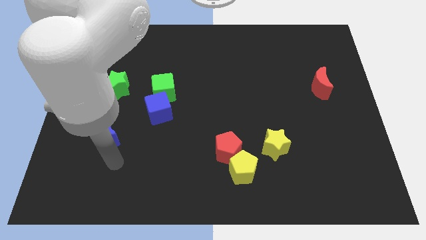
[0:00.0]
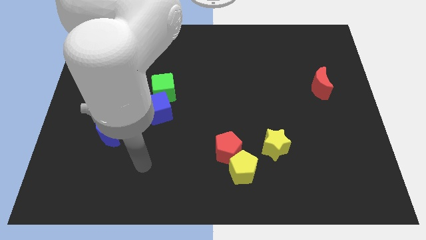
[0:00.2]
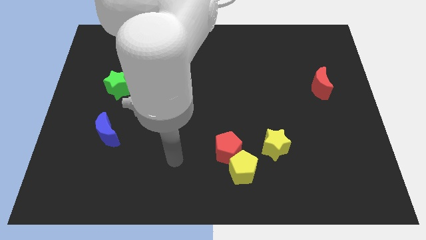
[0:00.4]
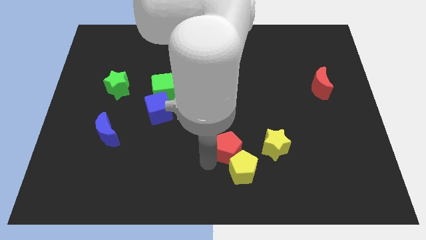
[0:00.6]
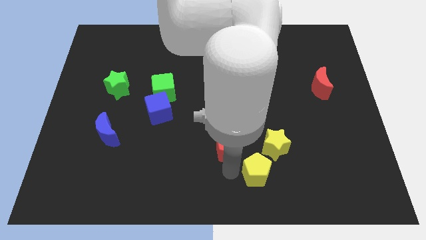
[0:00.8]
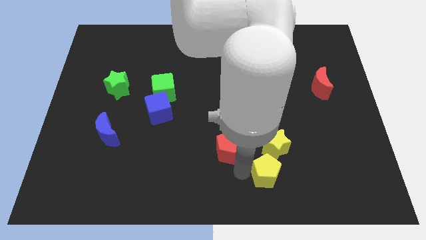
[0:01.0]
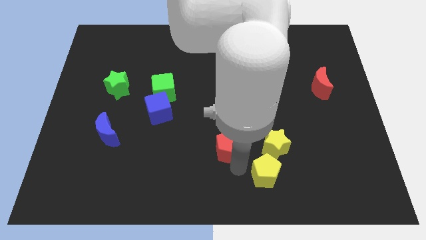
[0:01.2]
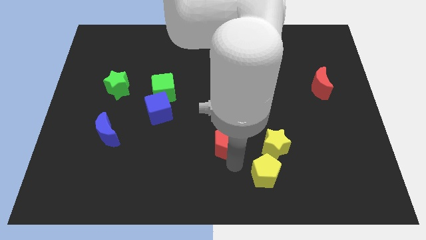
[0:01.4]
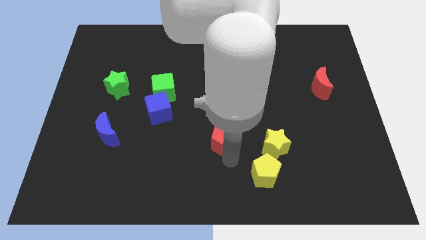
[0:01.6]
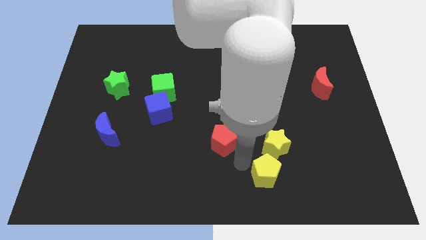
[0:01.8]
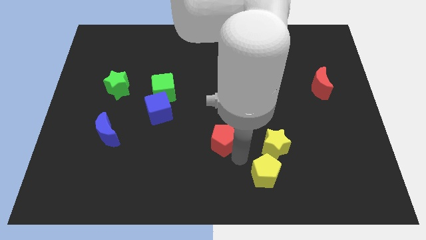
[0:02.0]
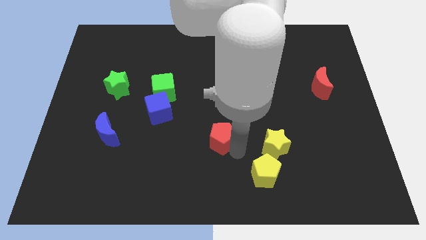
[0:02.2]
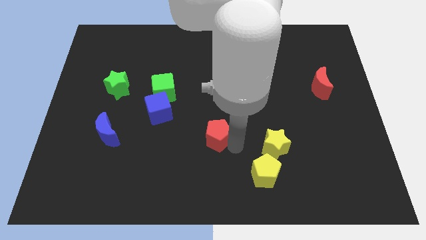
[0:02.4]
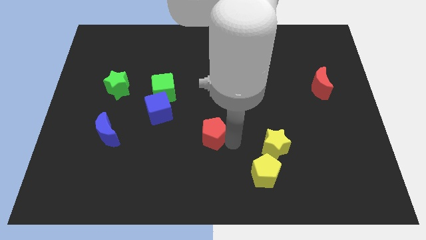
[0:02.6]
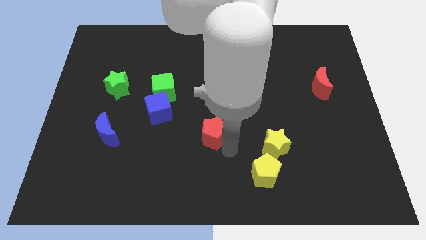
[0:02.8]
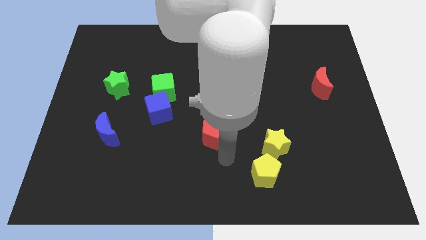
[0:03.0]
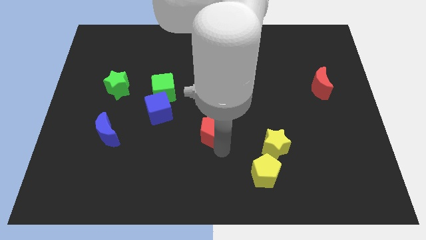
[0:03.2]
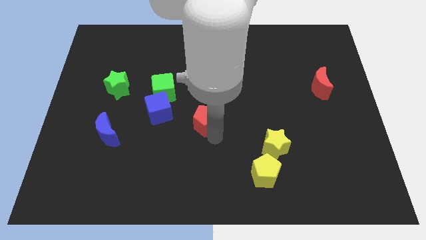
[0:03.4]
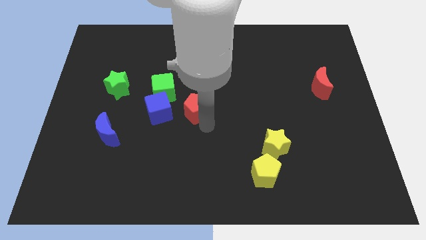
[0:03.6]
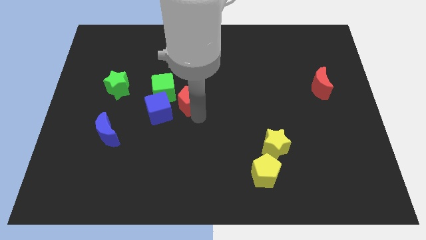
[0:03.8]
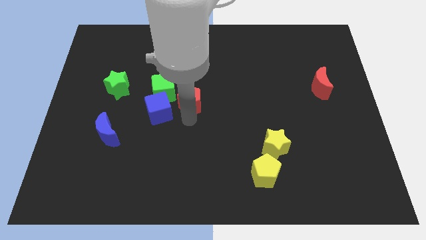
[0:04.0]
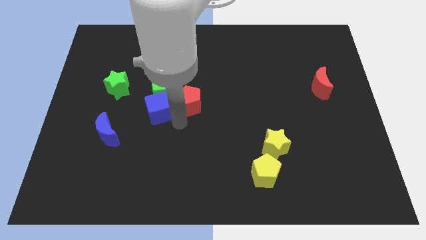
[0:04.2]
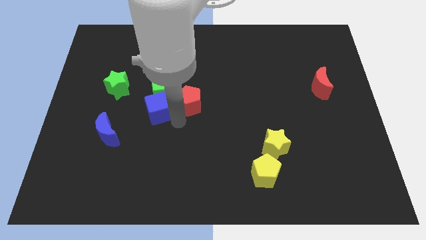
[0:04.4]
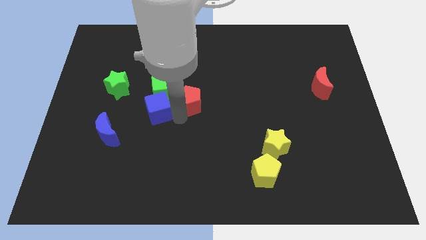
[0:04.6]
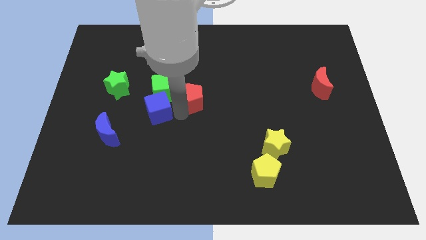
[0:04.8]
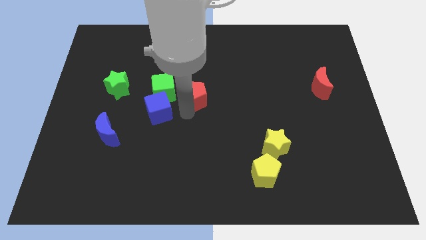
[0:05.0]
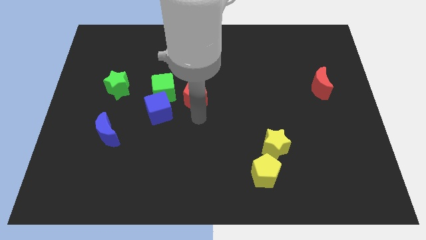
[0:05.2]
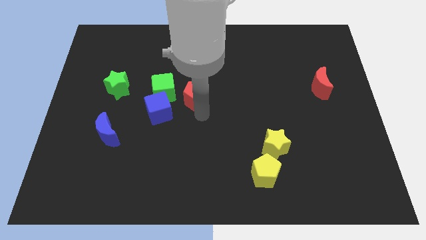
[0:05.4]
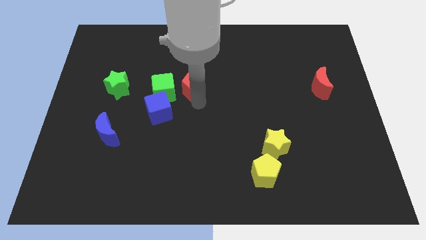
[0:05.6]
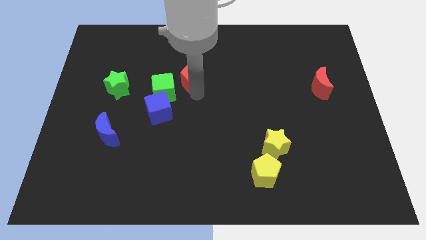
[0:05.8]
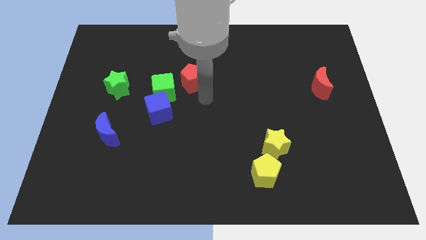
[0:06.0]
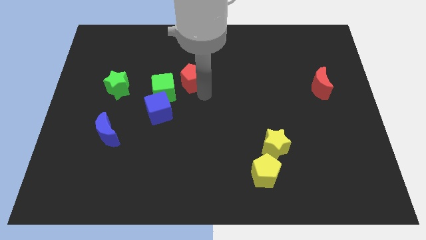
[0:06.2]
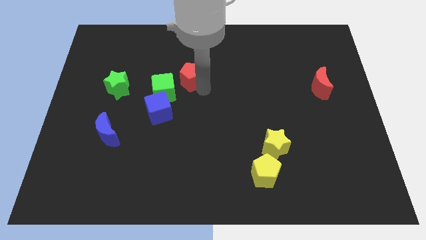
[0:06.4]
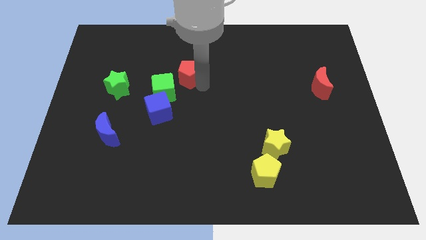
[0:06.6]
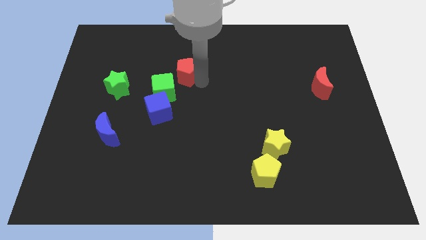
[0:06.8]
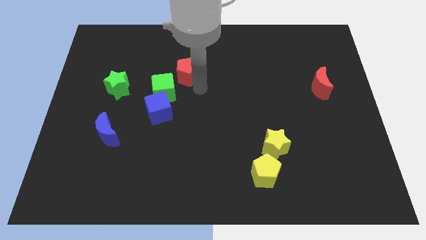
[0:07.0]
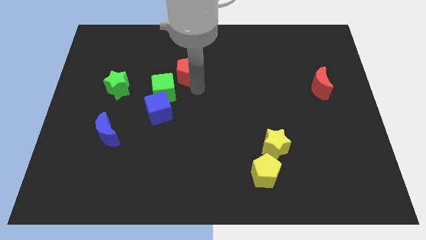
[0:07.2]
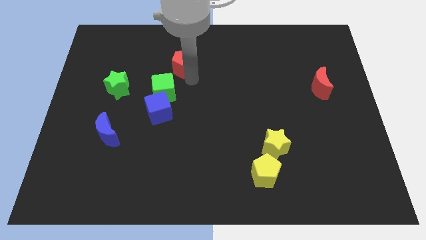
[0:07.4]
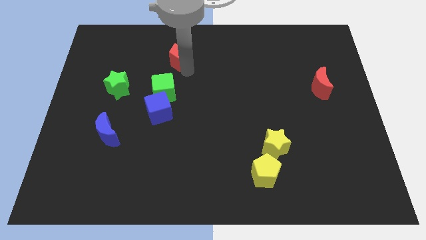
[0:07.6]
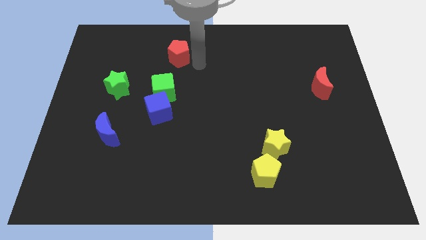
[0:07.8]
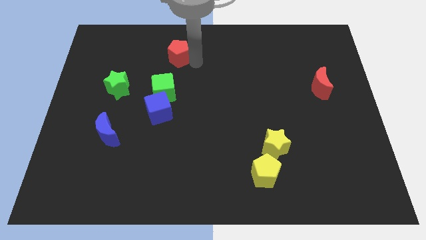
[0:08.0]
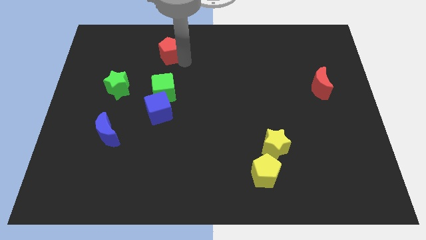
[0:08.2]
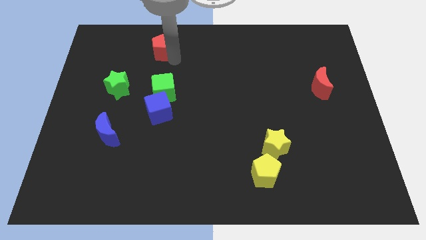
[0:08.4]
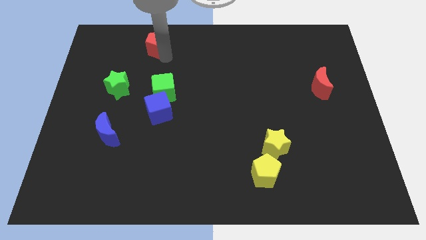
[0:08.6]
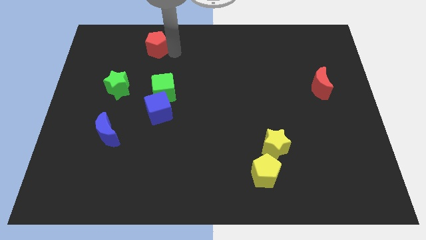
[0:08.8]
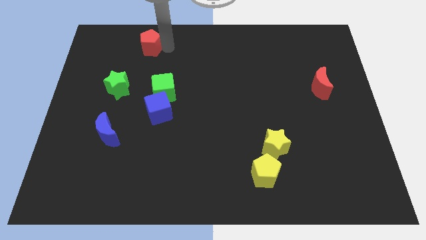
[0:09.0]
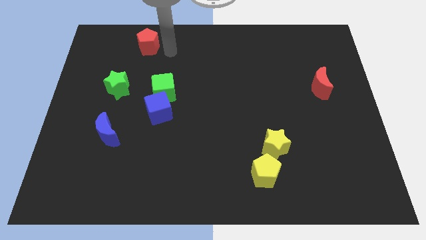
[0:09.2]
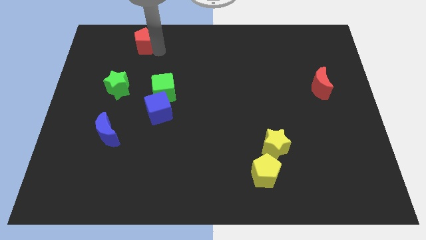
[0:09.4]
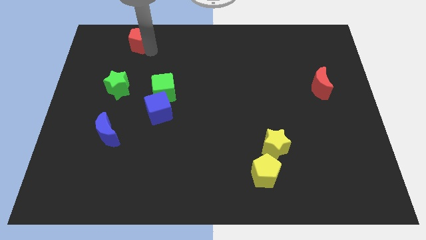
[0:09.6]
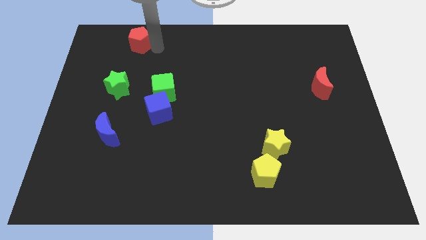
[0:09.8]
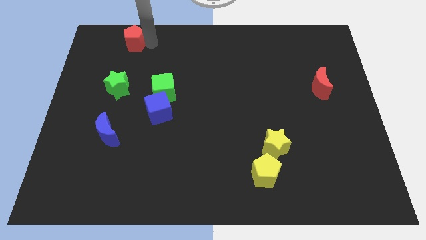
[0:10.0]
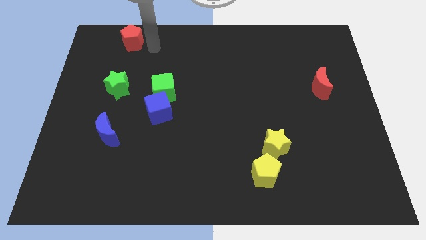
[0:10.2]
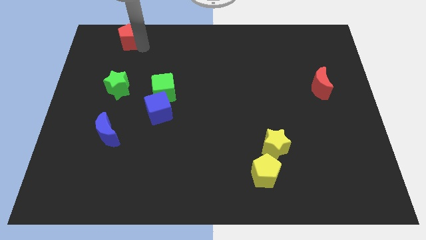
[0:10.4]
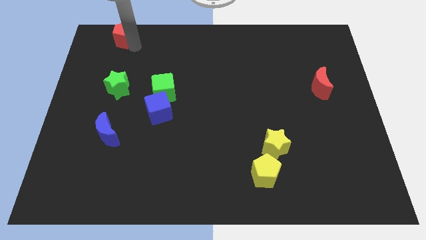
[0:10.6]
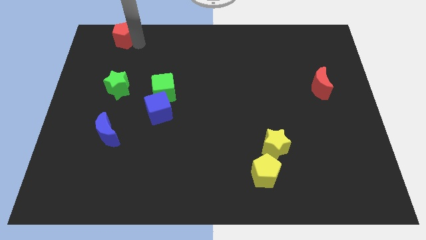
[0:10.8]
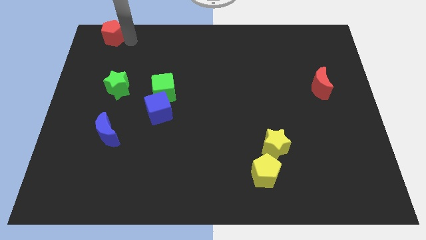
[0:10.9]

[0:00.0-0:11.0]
slide the red pentagon to the top left of the board
